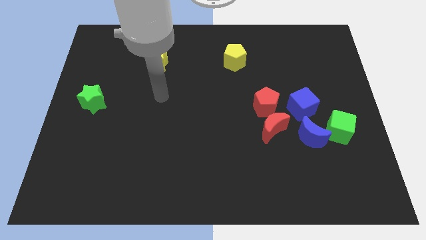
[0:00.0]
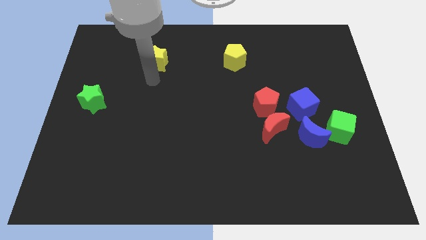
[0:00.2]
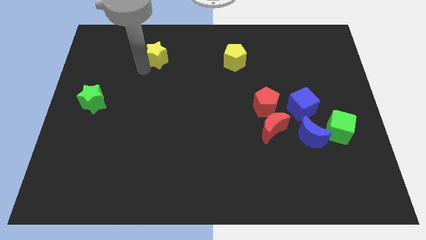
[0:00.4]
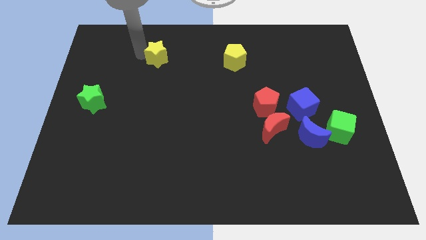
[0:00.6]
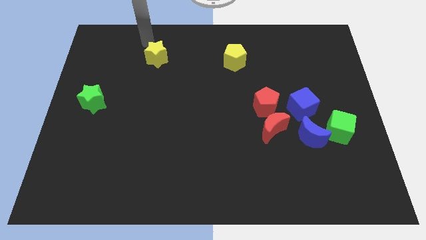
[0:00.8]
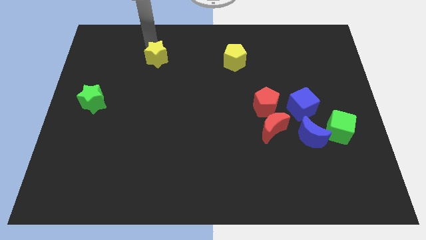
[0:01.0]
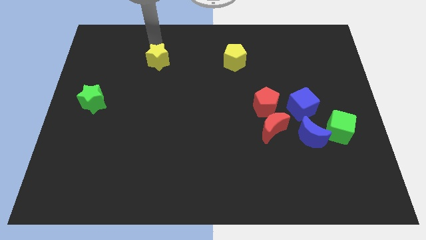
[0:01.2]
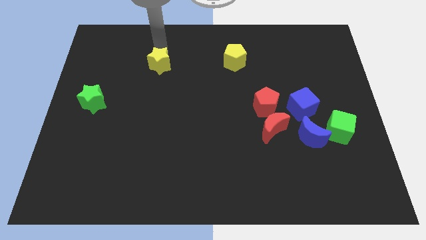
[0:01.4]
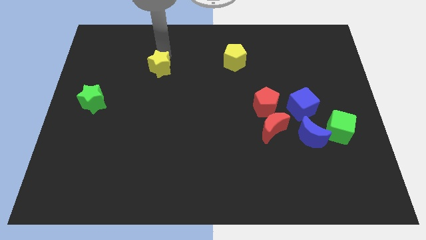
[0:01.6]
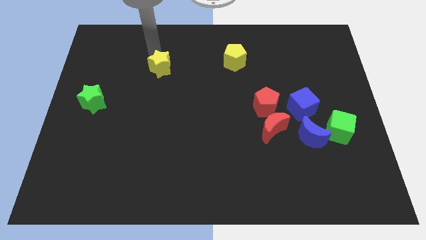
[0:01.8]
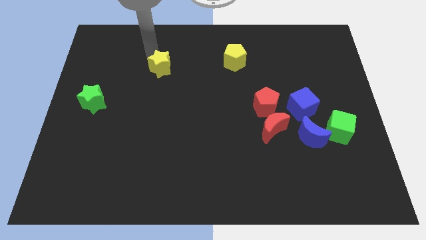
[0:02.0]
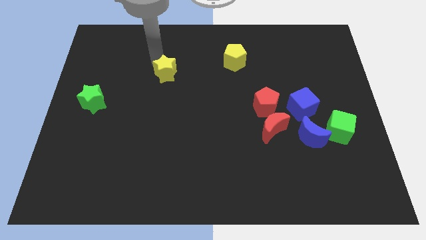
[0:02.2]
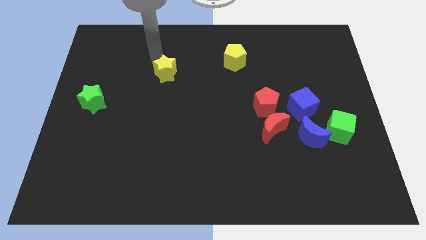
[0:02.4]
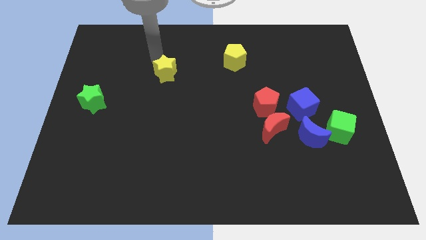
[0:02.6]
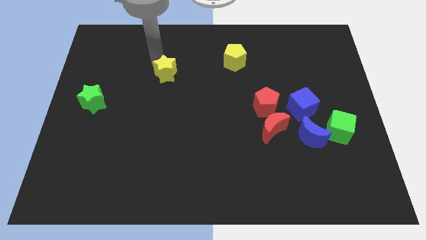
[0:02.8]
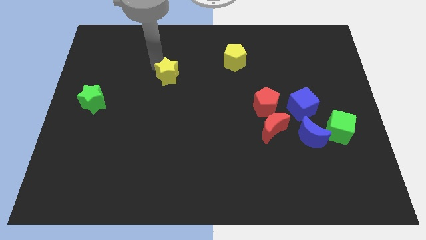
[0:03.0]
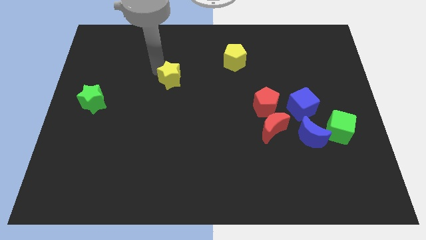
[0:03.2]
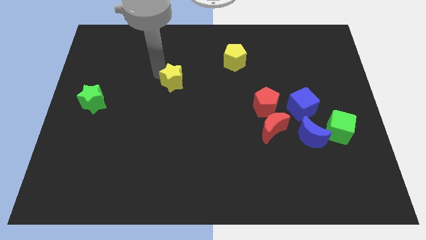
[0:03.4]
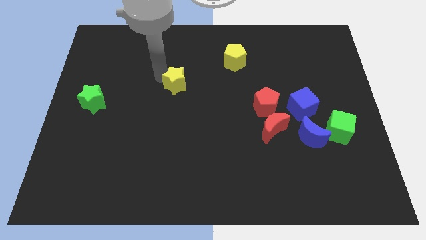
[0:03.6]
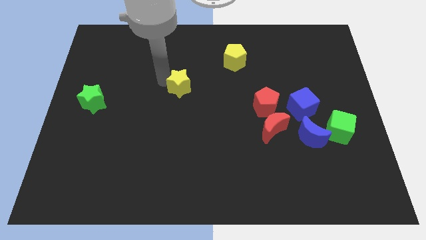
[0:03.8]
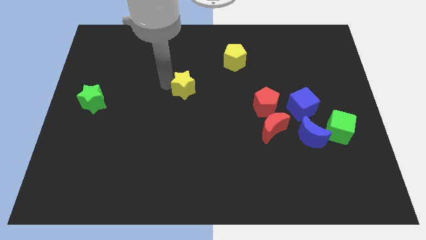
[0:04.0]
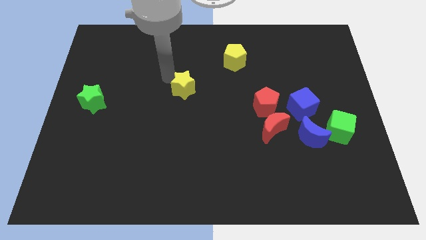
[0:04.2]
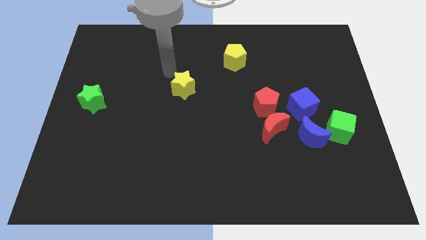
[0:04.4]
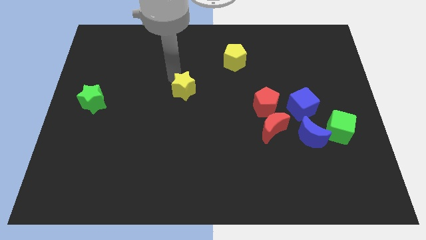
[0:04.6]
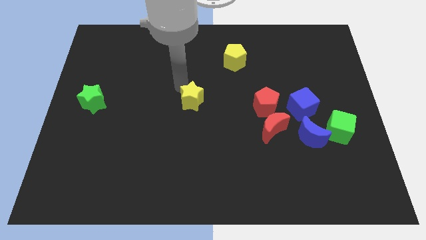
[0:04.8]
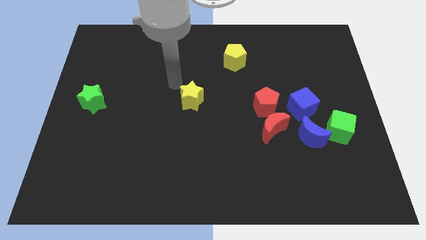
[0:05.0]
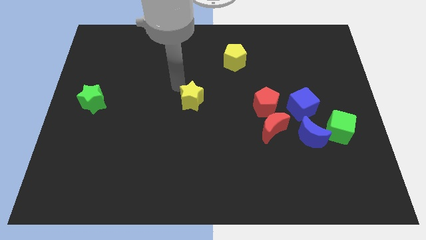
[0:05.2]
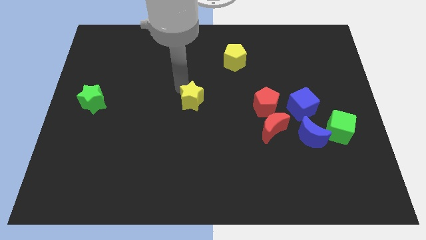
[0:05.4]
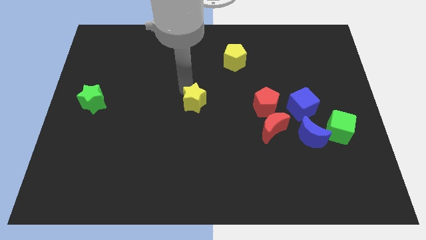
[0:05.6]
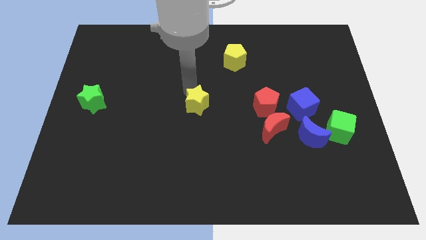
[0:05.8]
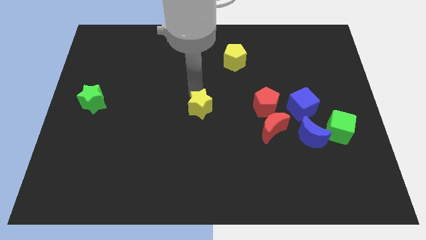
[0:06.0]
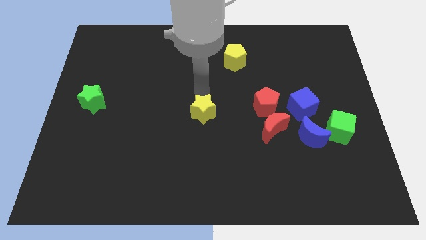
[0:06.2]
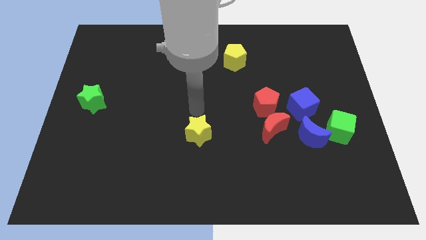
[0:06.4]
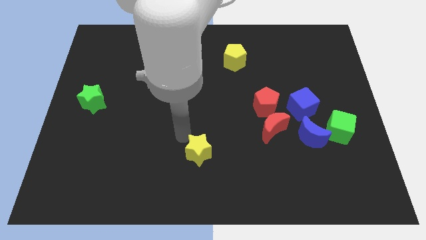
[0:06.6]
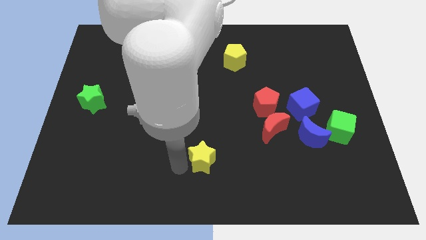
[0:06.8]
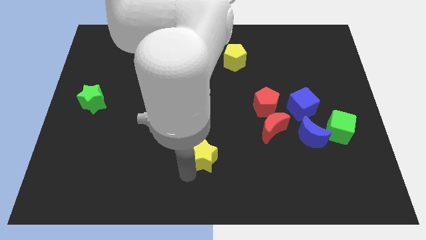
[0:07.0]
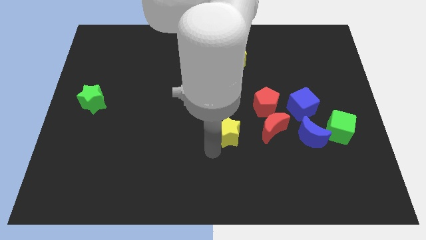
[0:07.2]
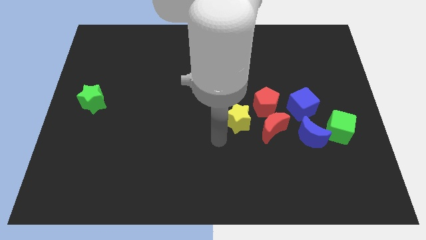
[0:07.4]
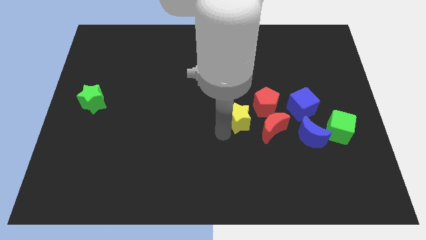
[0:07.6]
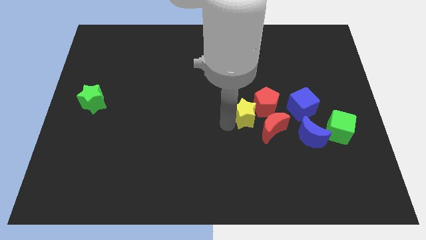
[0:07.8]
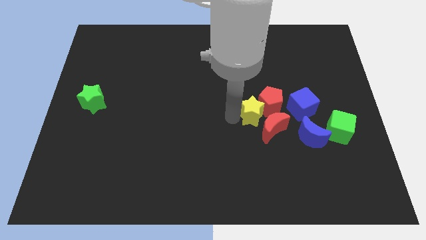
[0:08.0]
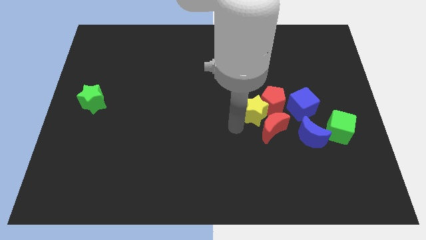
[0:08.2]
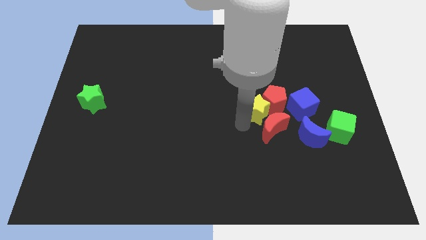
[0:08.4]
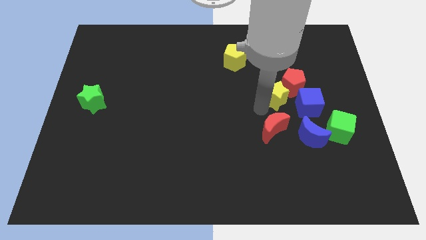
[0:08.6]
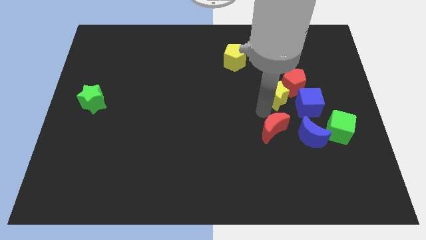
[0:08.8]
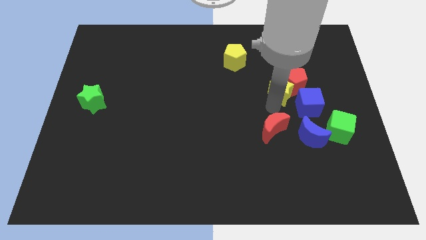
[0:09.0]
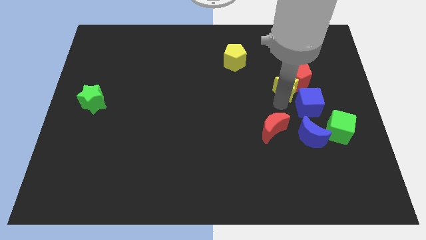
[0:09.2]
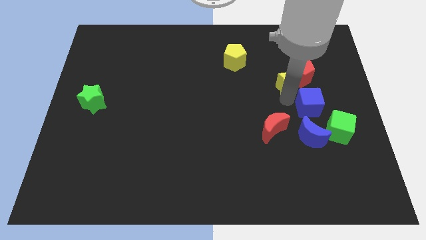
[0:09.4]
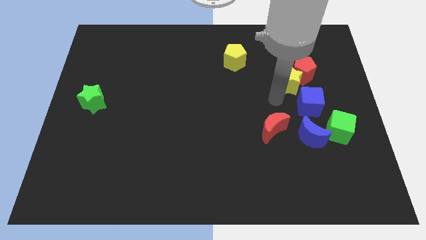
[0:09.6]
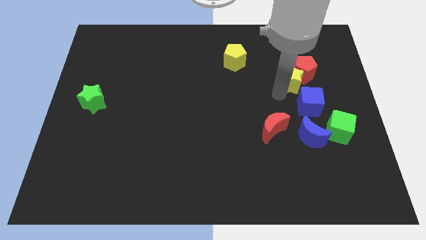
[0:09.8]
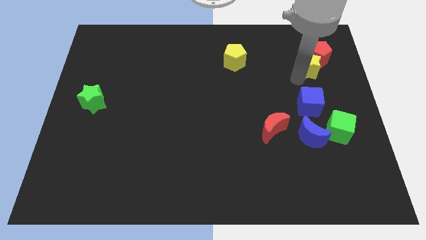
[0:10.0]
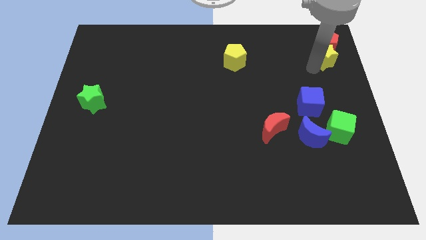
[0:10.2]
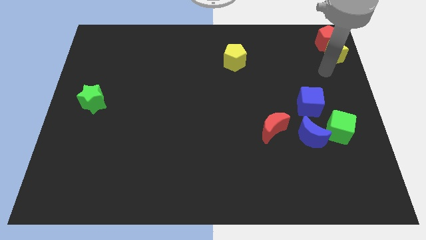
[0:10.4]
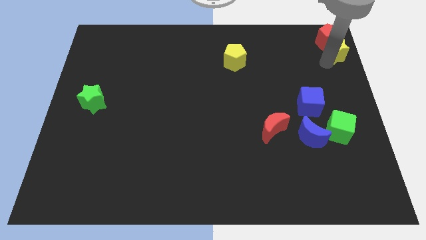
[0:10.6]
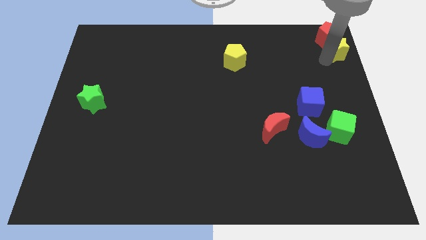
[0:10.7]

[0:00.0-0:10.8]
push the yellow star to the top right

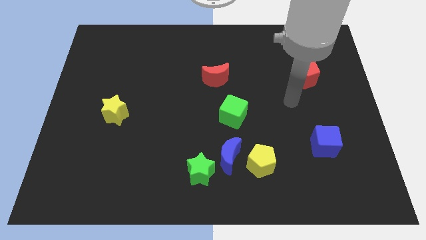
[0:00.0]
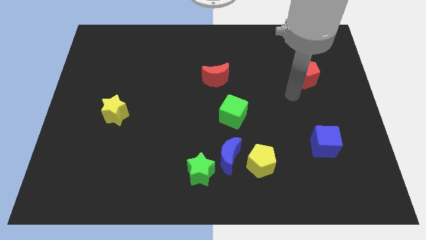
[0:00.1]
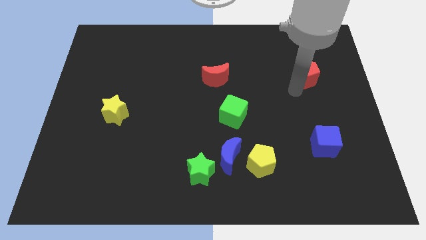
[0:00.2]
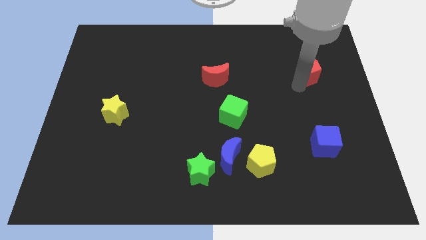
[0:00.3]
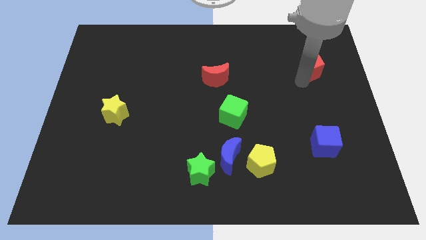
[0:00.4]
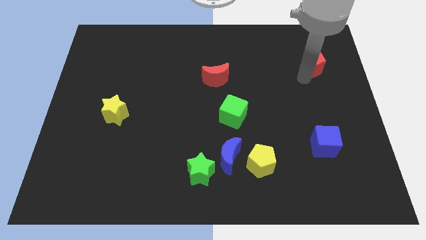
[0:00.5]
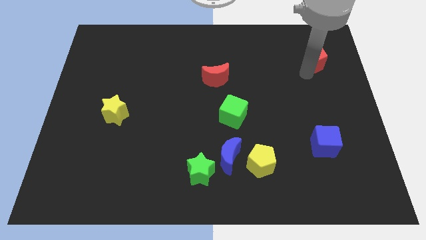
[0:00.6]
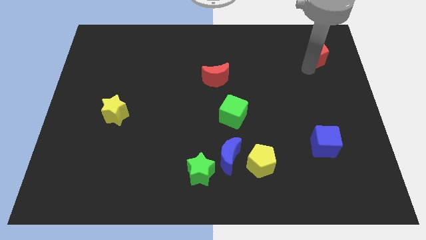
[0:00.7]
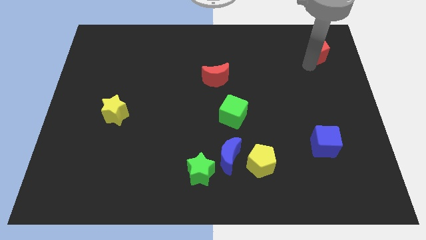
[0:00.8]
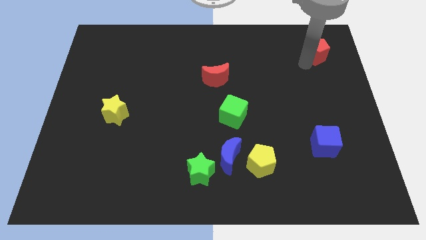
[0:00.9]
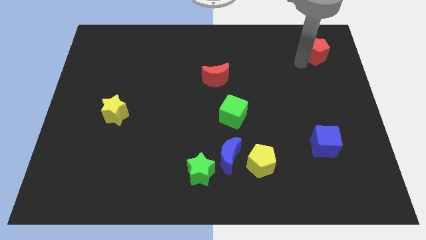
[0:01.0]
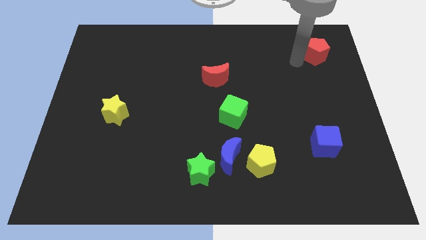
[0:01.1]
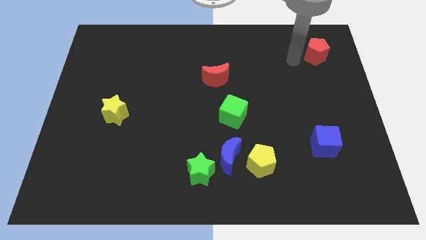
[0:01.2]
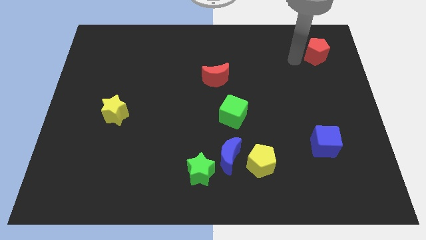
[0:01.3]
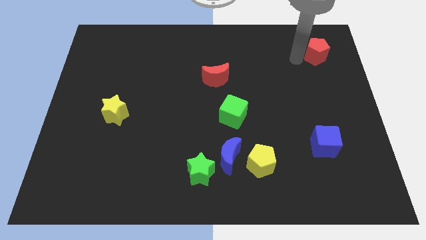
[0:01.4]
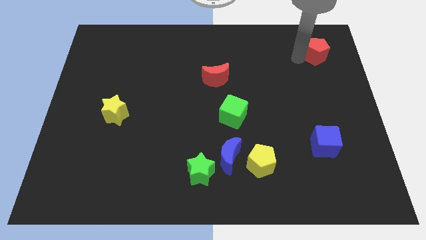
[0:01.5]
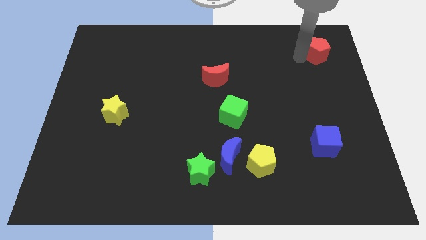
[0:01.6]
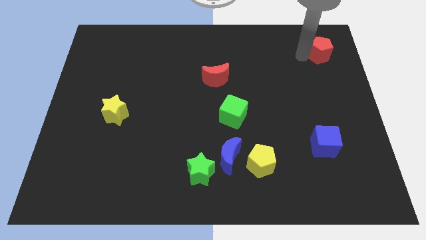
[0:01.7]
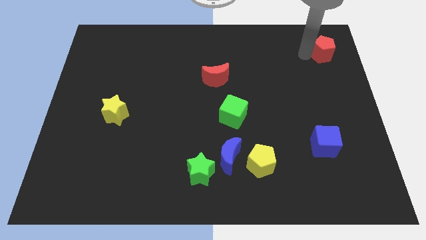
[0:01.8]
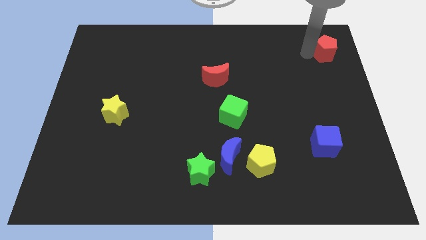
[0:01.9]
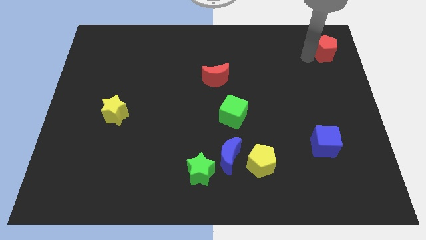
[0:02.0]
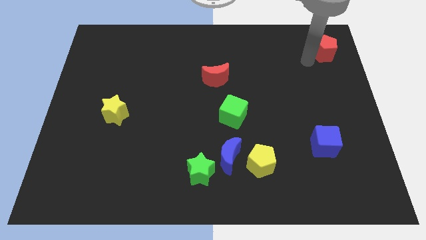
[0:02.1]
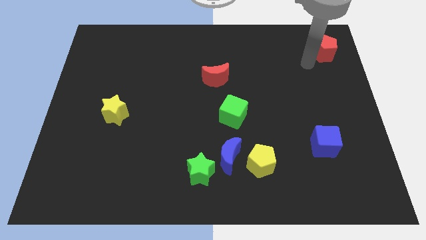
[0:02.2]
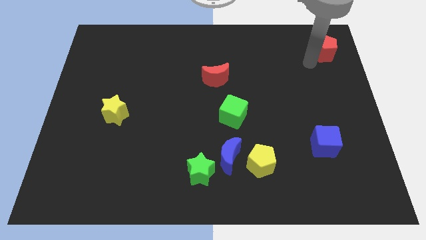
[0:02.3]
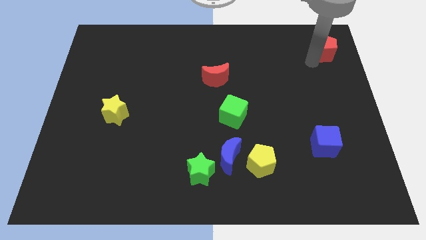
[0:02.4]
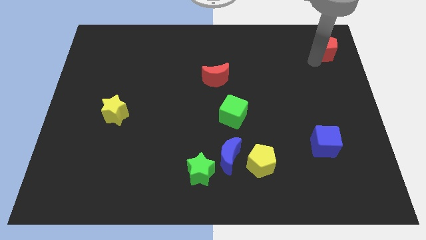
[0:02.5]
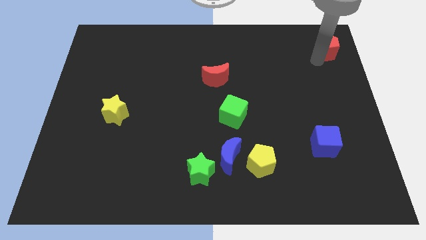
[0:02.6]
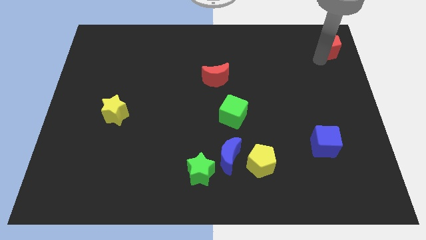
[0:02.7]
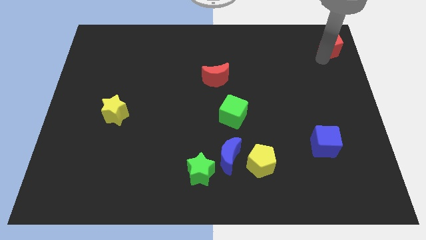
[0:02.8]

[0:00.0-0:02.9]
slide the red pentagon to the upper right corner
